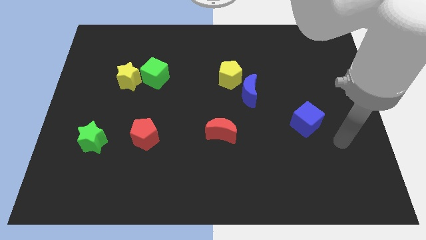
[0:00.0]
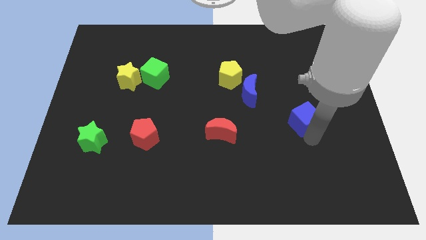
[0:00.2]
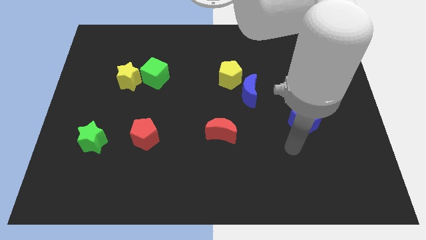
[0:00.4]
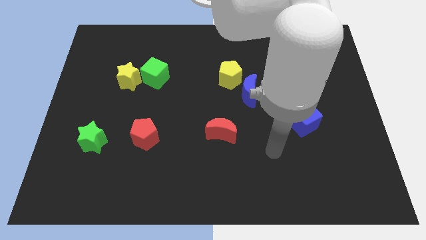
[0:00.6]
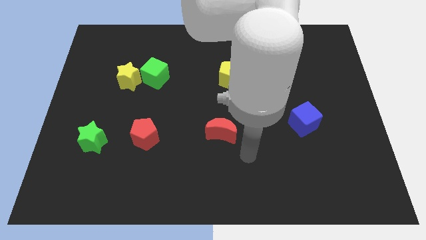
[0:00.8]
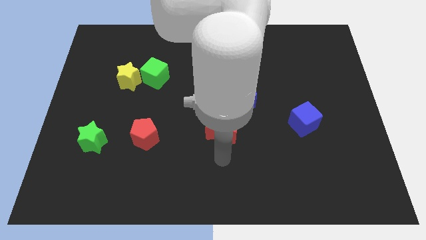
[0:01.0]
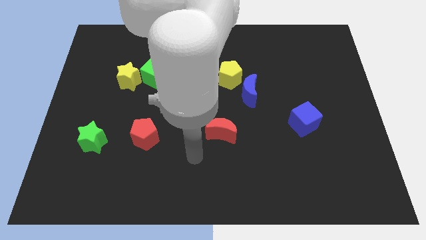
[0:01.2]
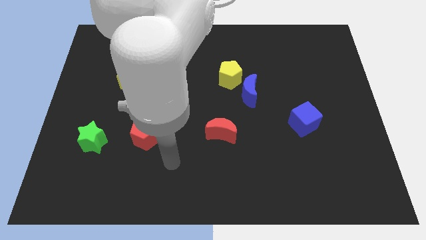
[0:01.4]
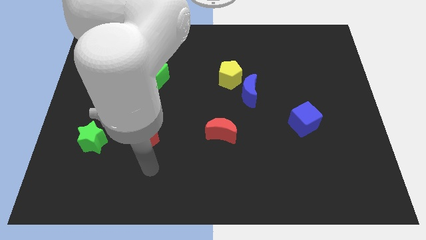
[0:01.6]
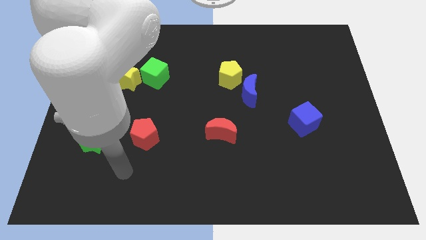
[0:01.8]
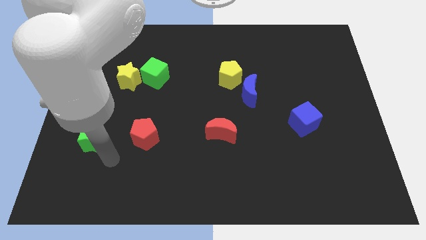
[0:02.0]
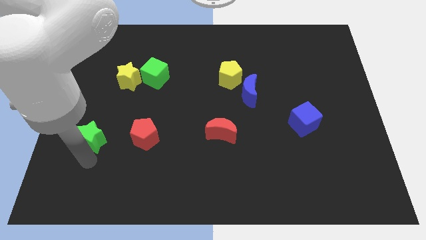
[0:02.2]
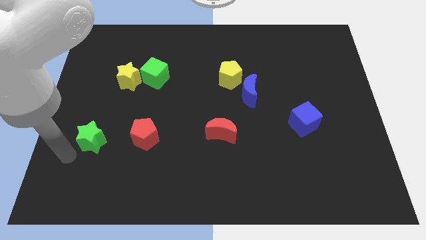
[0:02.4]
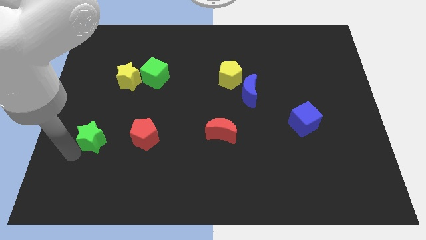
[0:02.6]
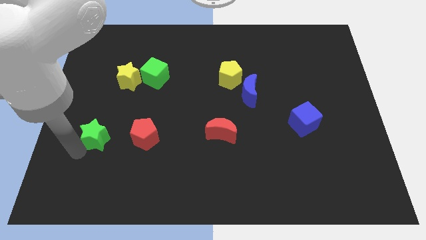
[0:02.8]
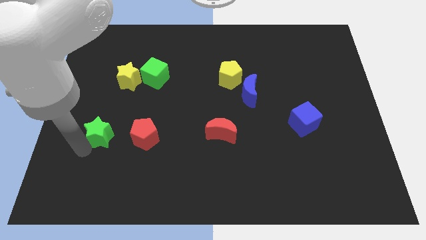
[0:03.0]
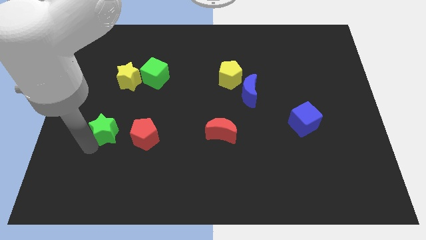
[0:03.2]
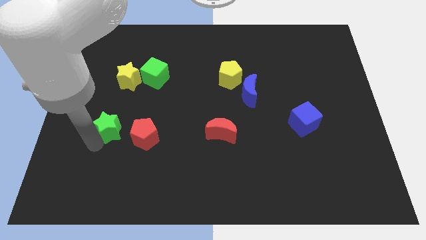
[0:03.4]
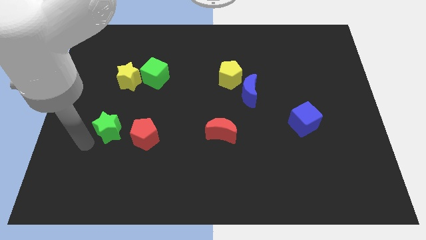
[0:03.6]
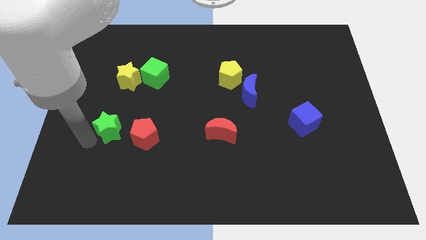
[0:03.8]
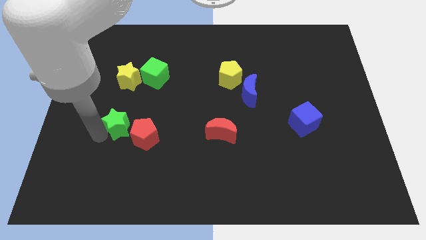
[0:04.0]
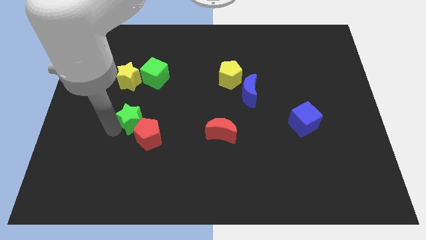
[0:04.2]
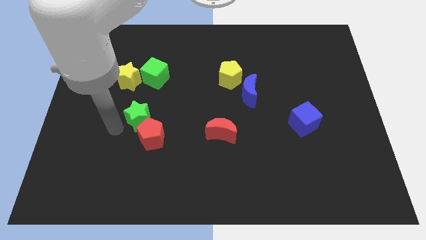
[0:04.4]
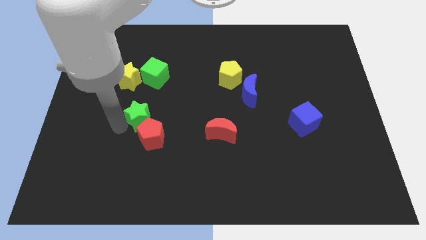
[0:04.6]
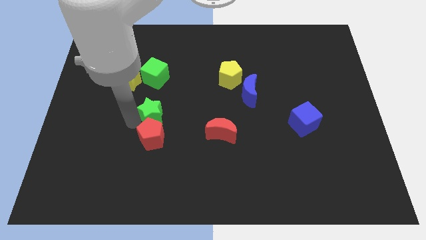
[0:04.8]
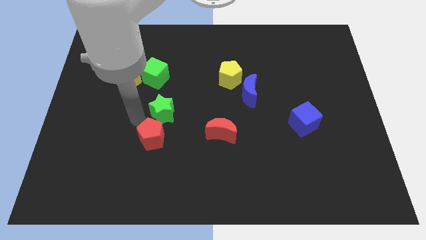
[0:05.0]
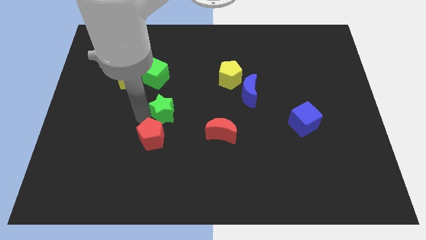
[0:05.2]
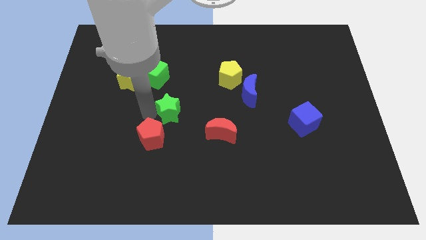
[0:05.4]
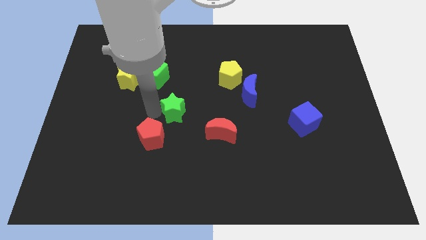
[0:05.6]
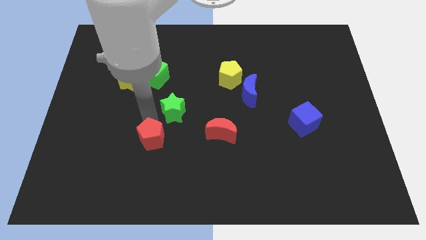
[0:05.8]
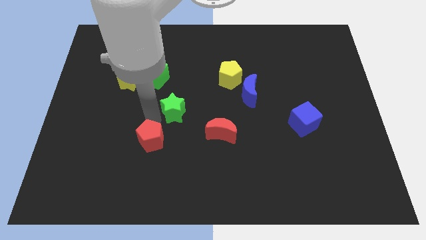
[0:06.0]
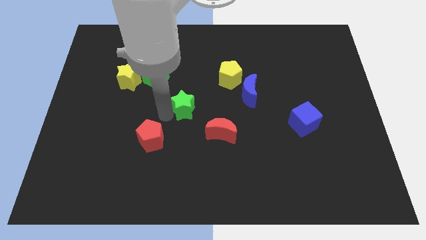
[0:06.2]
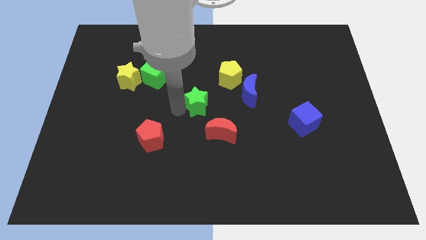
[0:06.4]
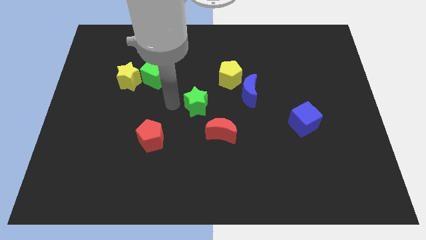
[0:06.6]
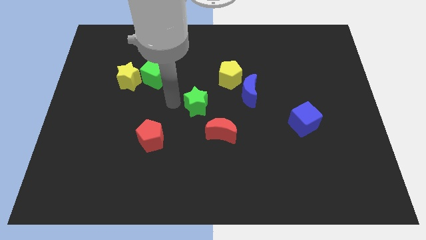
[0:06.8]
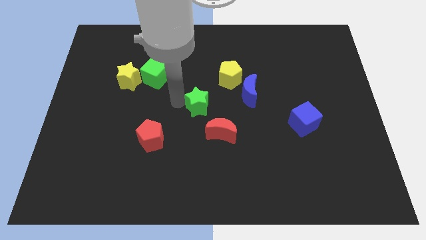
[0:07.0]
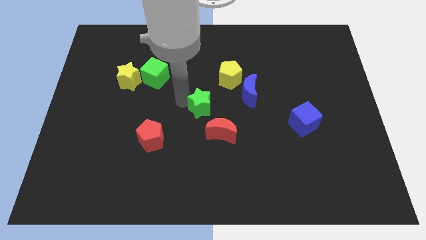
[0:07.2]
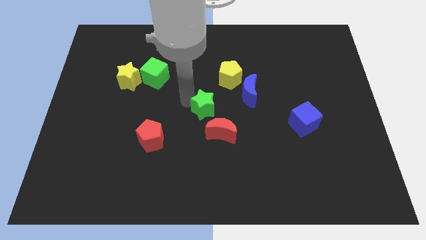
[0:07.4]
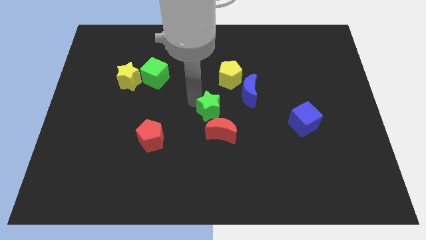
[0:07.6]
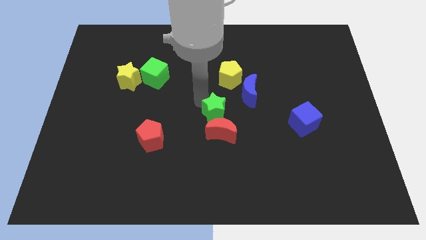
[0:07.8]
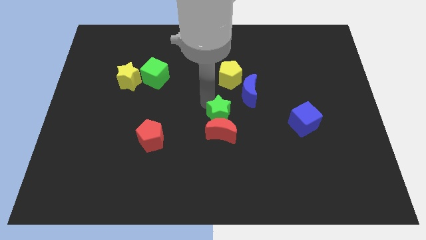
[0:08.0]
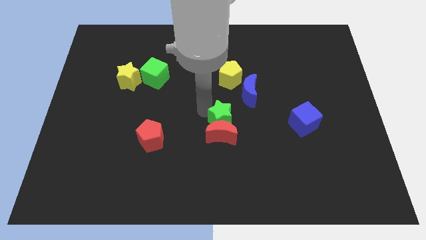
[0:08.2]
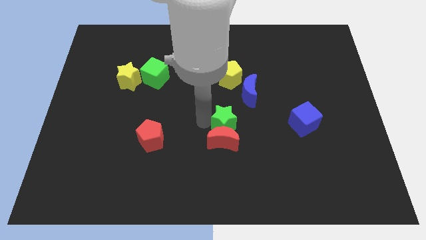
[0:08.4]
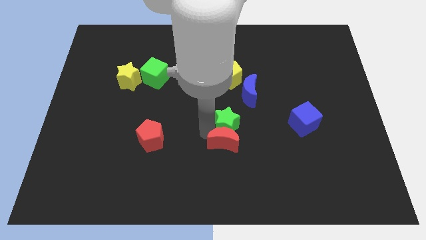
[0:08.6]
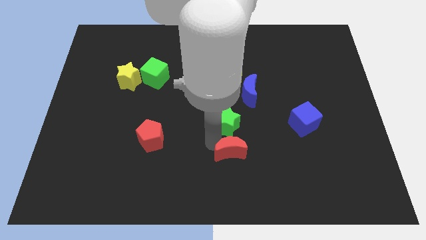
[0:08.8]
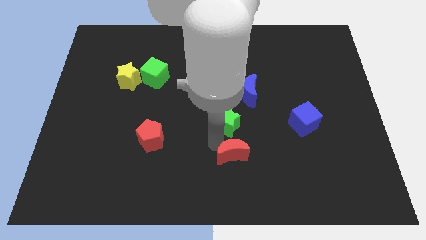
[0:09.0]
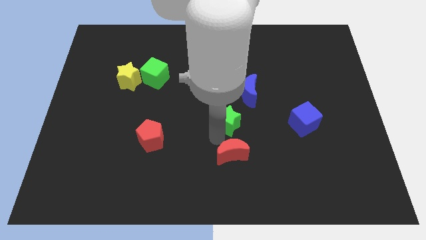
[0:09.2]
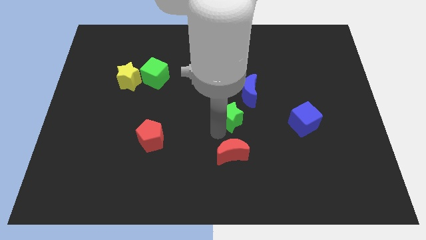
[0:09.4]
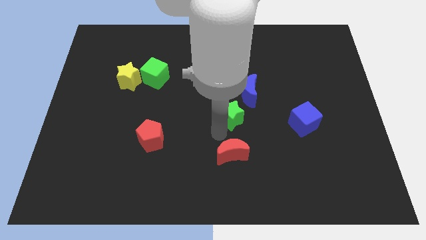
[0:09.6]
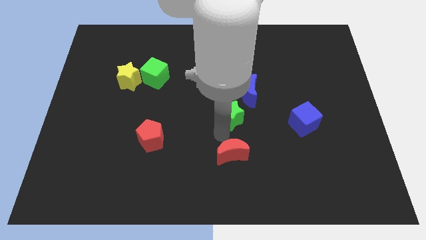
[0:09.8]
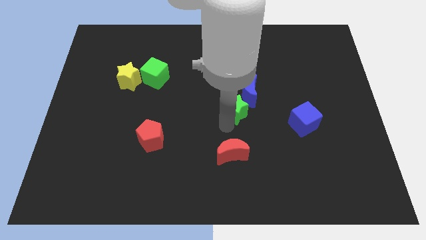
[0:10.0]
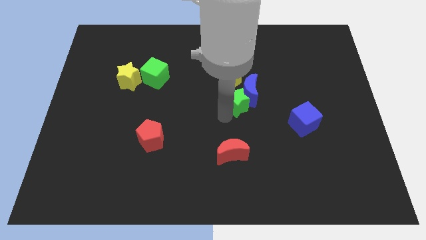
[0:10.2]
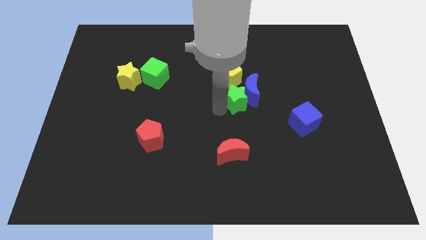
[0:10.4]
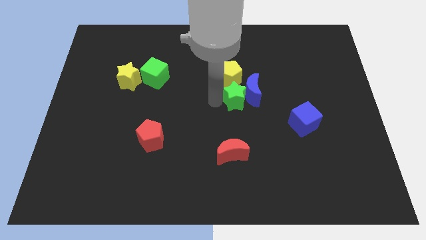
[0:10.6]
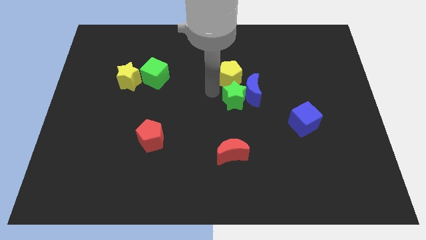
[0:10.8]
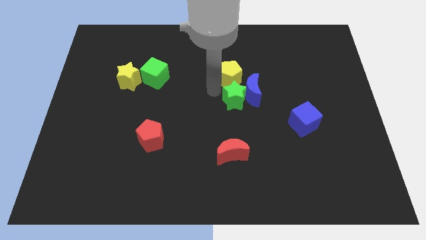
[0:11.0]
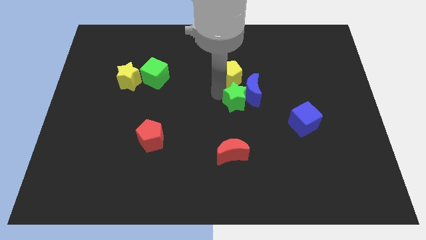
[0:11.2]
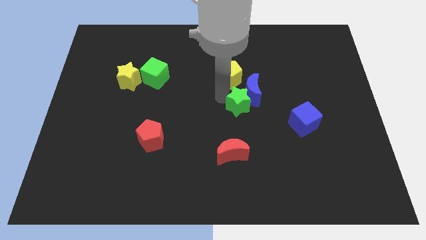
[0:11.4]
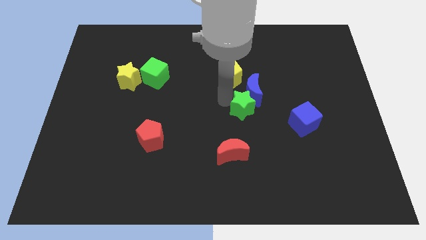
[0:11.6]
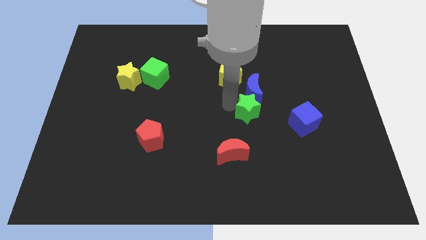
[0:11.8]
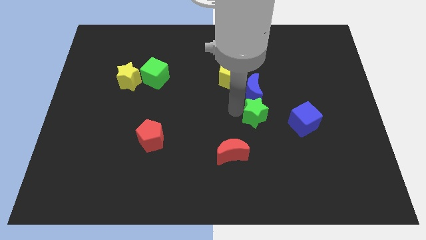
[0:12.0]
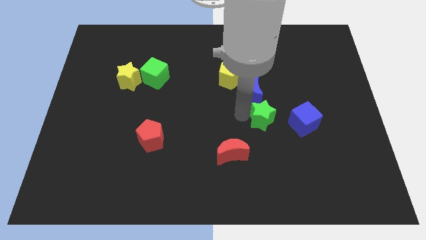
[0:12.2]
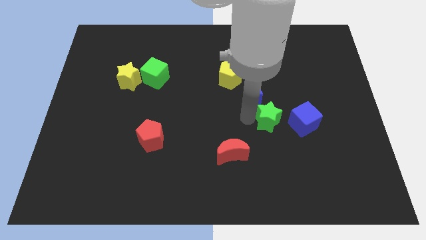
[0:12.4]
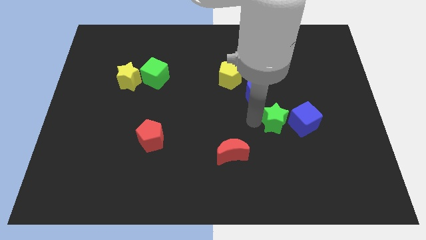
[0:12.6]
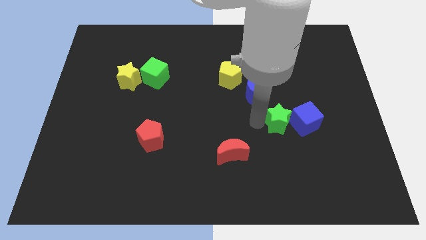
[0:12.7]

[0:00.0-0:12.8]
move the green star towards the blue cube

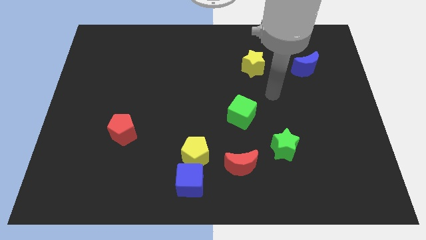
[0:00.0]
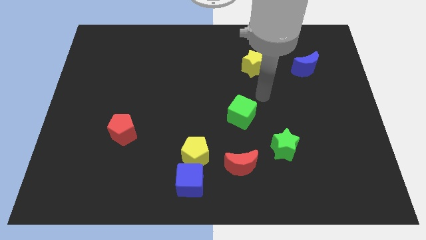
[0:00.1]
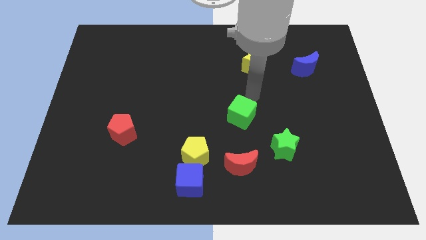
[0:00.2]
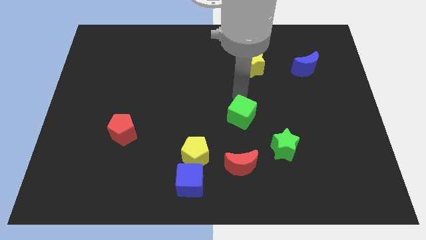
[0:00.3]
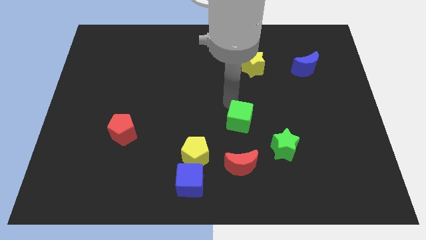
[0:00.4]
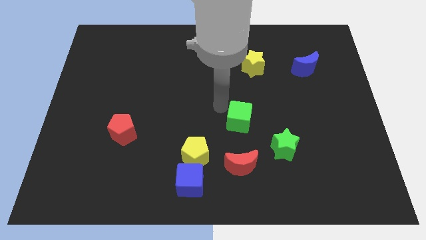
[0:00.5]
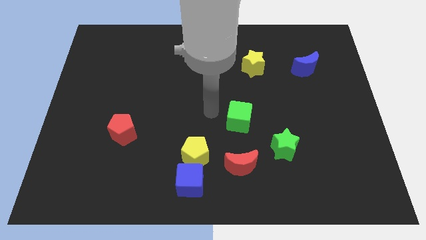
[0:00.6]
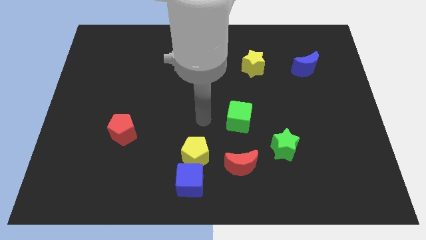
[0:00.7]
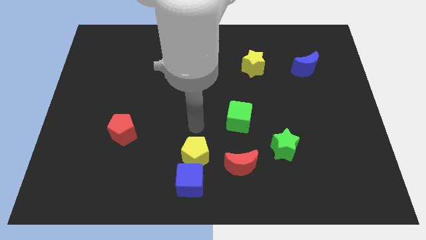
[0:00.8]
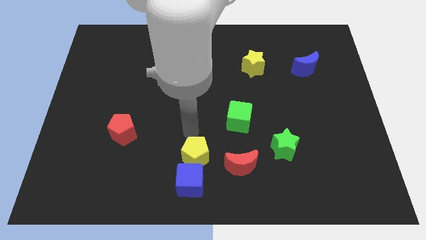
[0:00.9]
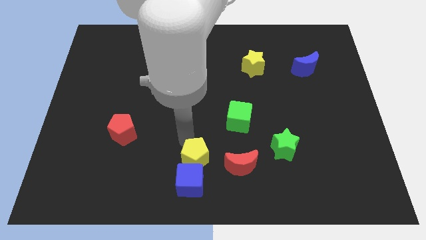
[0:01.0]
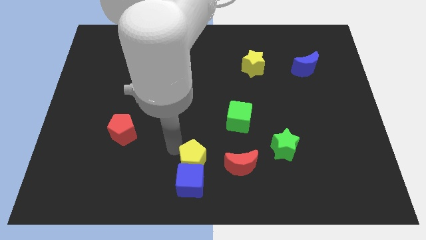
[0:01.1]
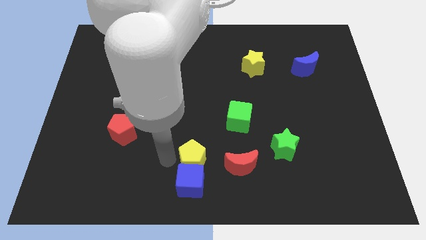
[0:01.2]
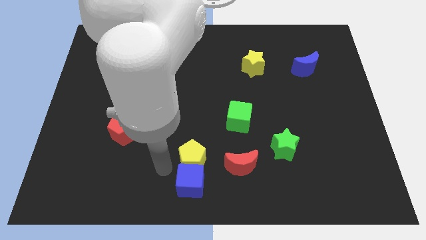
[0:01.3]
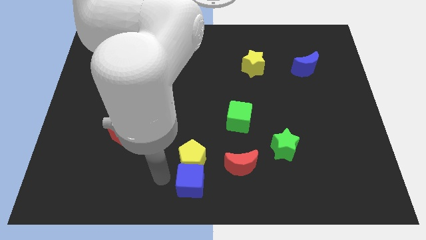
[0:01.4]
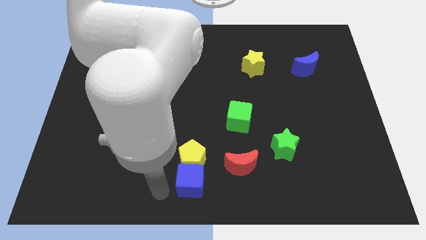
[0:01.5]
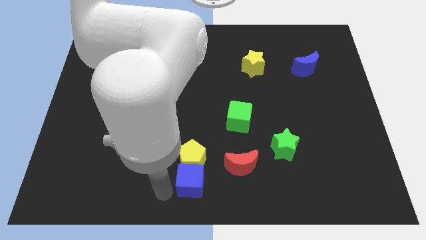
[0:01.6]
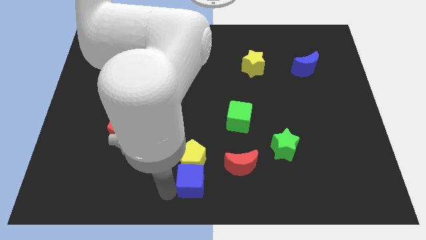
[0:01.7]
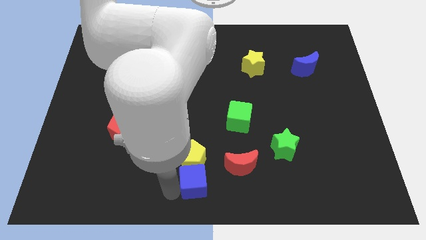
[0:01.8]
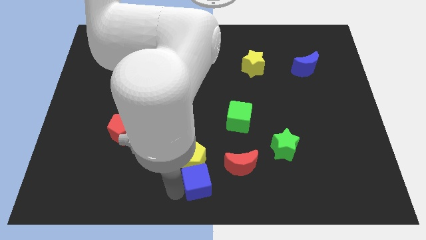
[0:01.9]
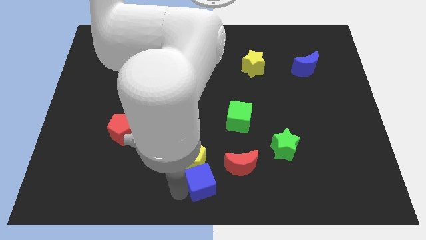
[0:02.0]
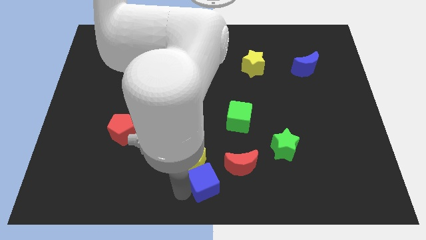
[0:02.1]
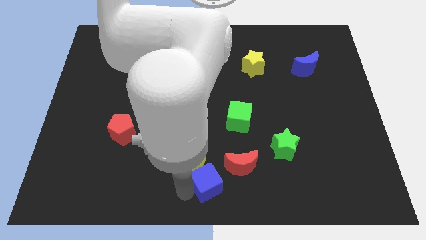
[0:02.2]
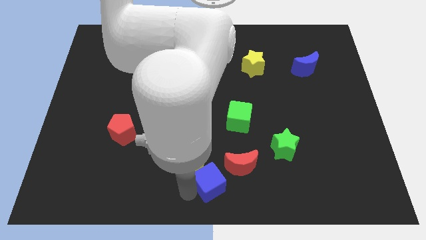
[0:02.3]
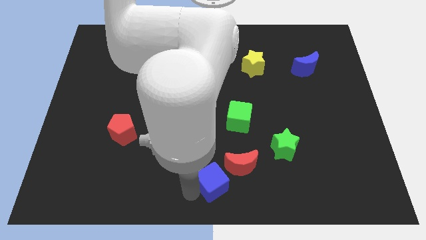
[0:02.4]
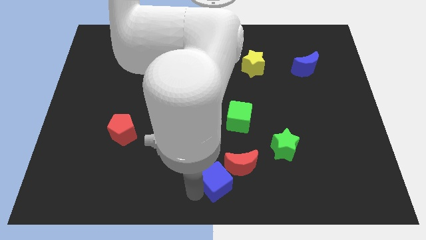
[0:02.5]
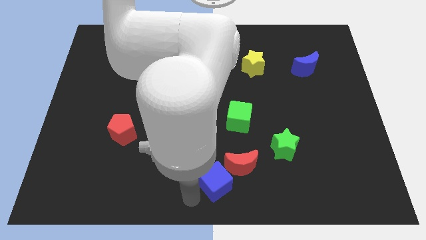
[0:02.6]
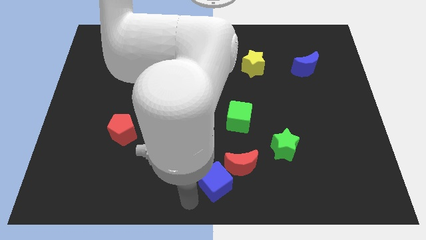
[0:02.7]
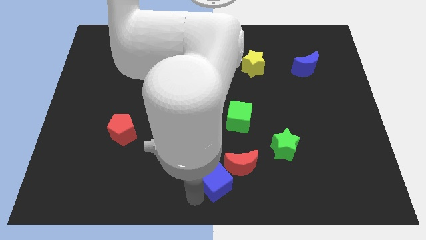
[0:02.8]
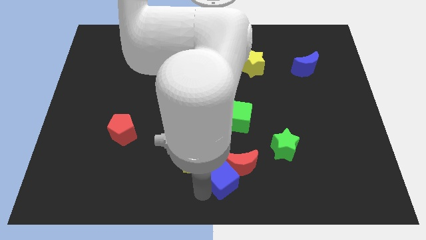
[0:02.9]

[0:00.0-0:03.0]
push the blue cube close to the red moon
